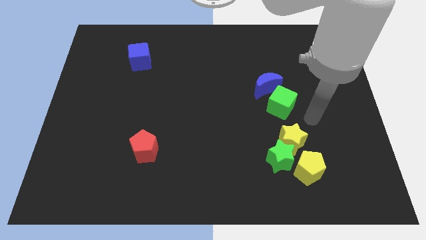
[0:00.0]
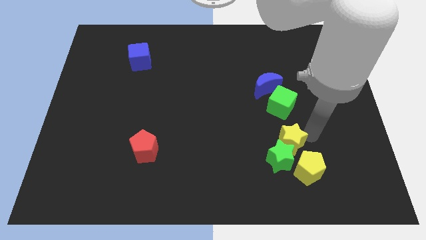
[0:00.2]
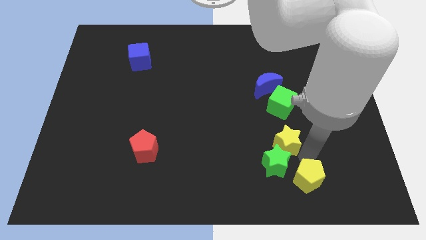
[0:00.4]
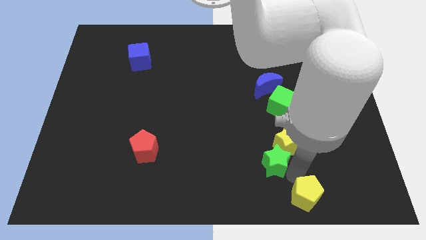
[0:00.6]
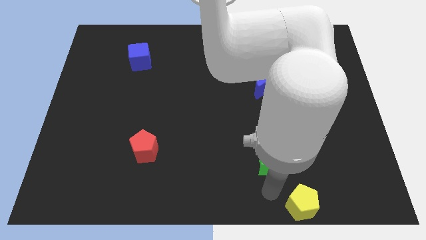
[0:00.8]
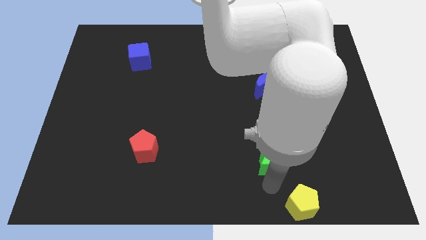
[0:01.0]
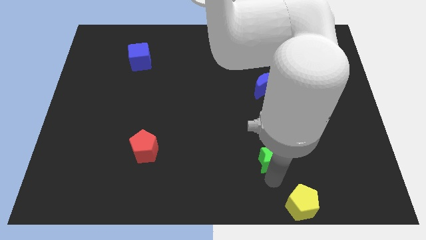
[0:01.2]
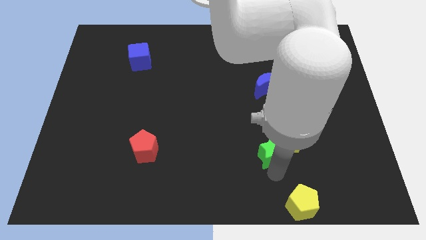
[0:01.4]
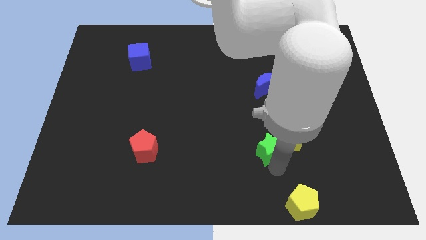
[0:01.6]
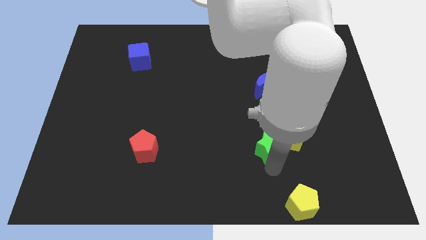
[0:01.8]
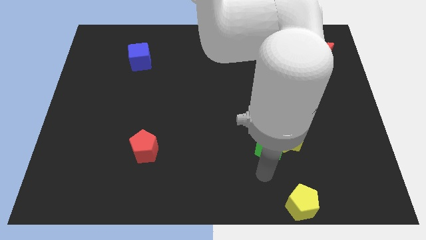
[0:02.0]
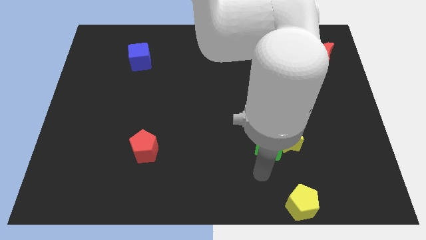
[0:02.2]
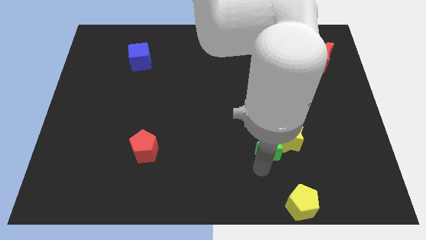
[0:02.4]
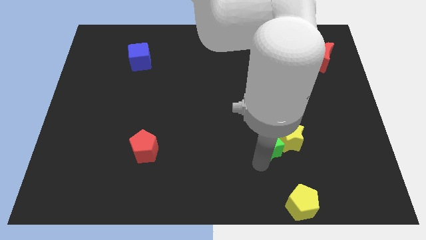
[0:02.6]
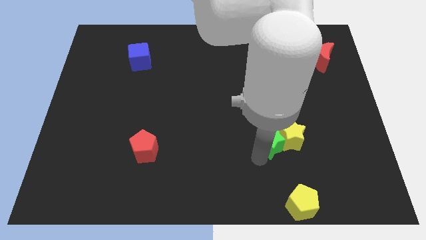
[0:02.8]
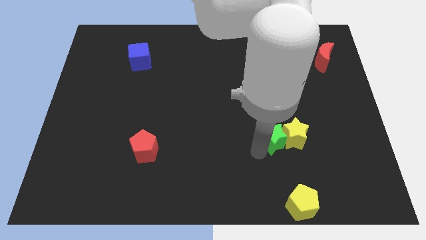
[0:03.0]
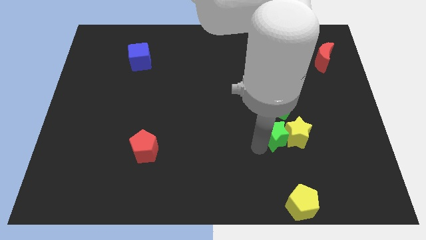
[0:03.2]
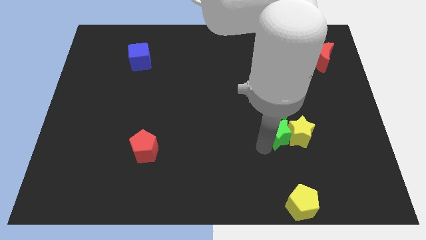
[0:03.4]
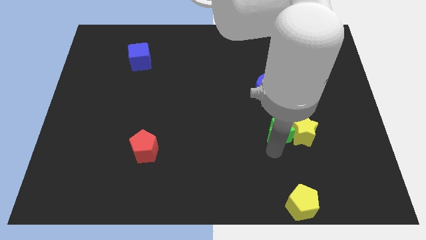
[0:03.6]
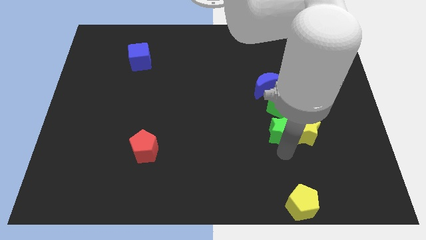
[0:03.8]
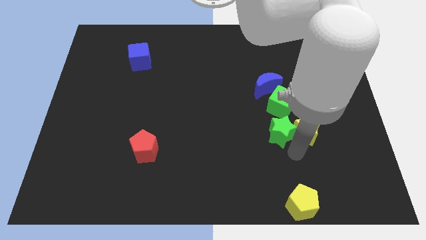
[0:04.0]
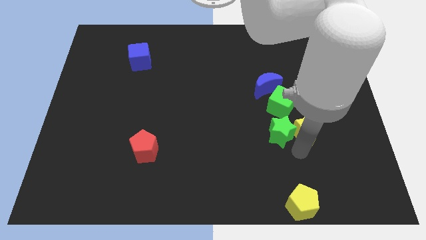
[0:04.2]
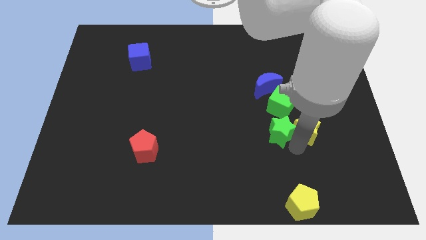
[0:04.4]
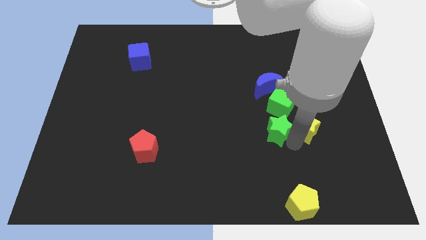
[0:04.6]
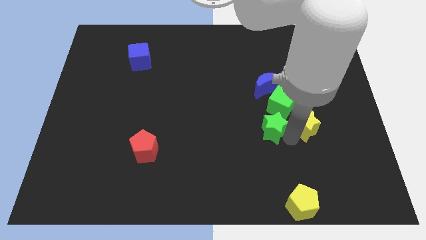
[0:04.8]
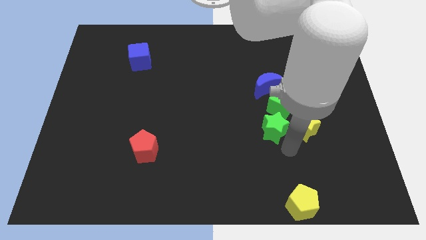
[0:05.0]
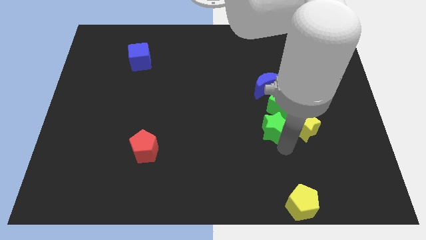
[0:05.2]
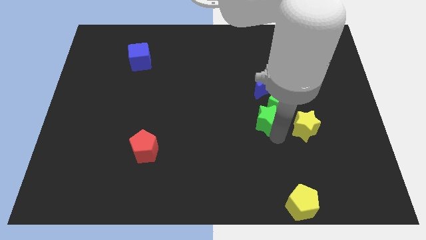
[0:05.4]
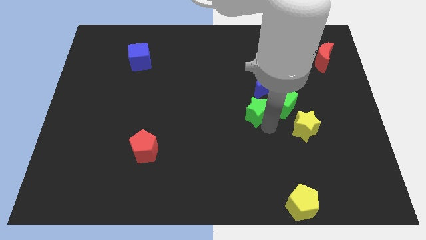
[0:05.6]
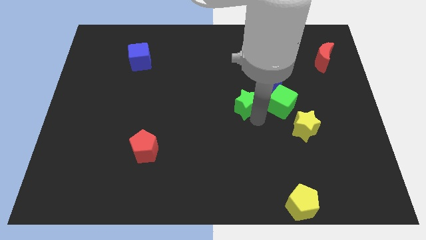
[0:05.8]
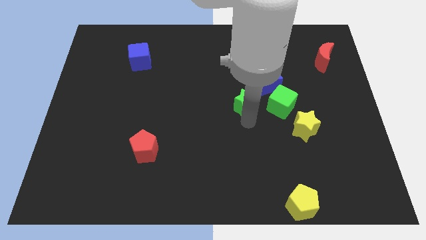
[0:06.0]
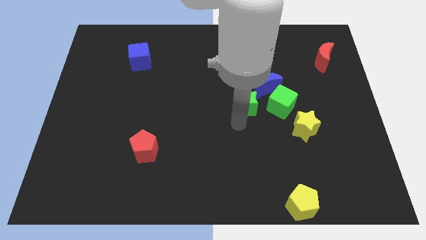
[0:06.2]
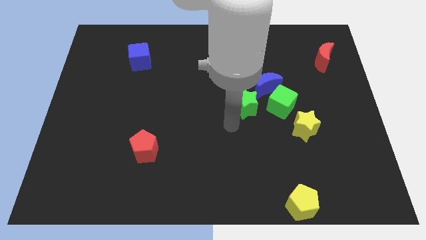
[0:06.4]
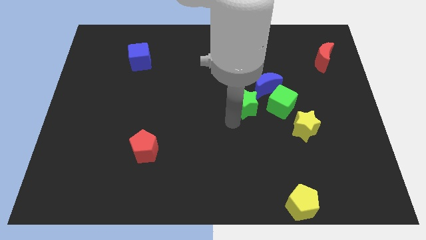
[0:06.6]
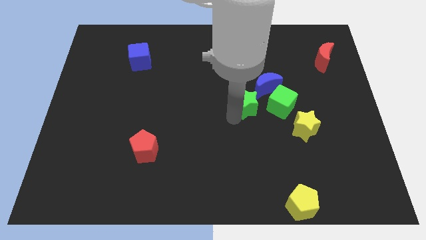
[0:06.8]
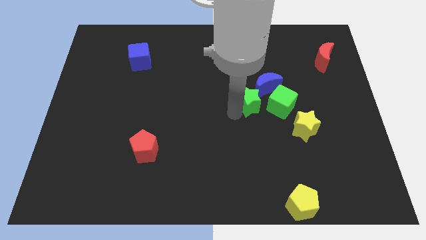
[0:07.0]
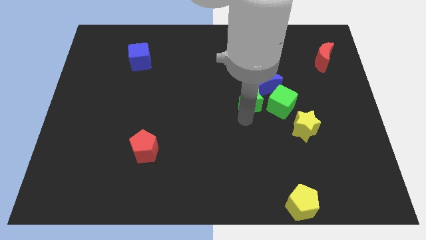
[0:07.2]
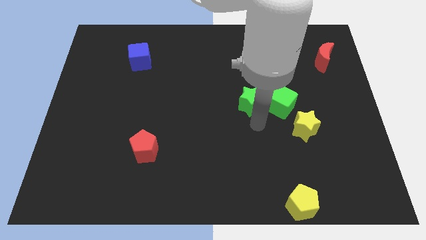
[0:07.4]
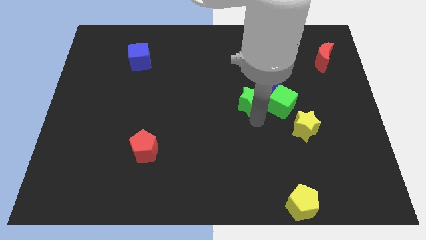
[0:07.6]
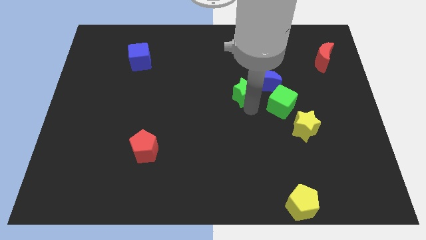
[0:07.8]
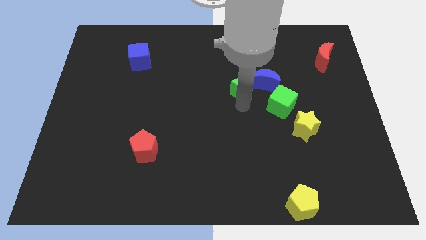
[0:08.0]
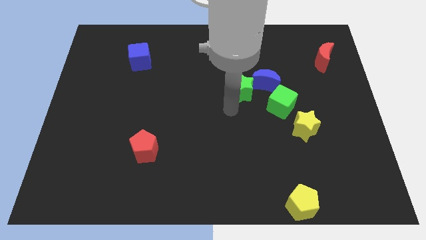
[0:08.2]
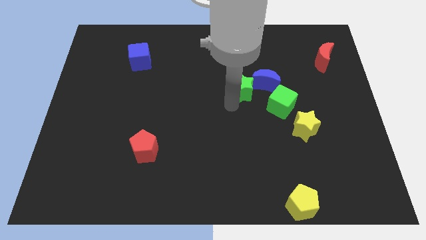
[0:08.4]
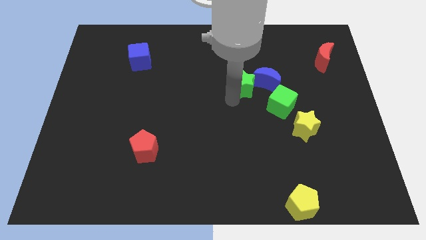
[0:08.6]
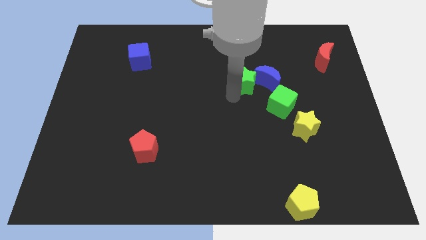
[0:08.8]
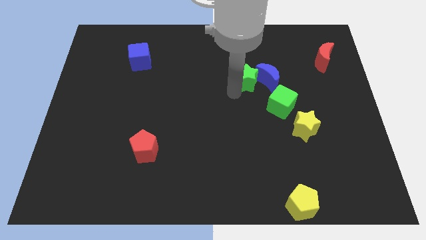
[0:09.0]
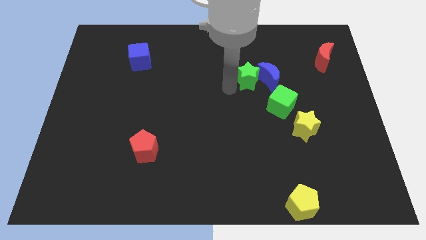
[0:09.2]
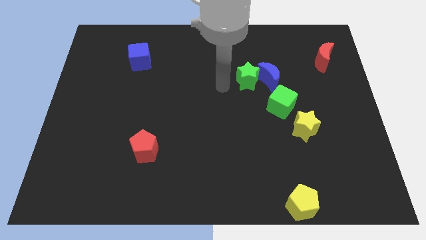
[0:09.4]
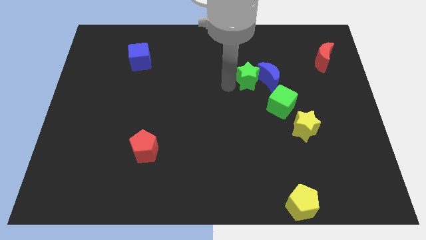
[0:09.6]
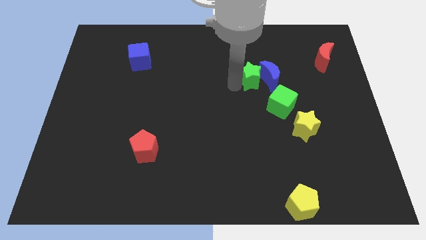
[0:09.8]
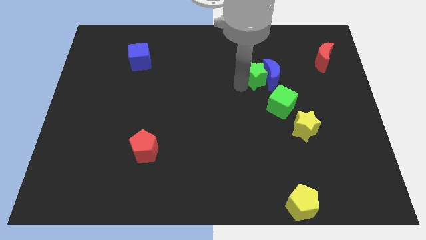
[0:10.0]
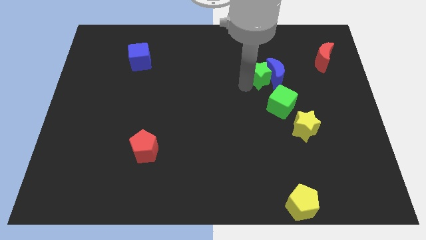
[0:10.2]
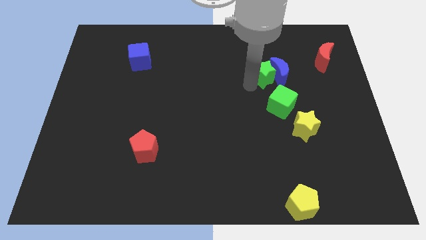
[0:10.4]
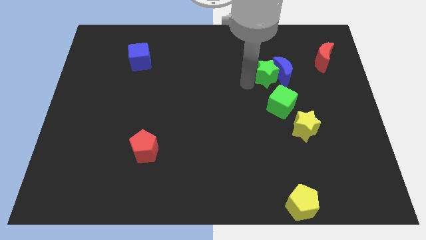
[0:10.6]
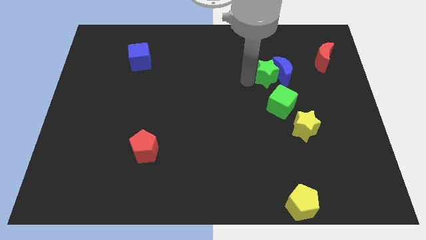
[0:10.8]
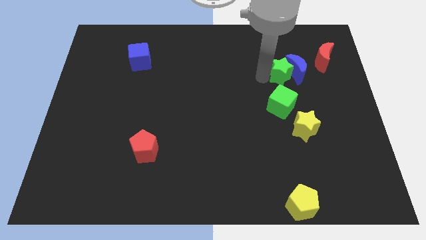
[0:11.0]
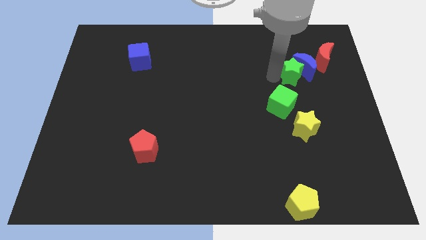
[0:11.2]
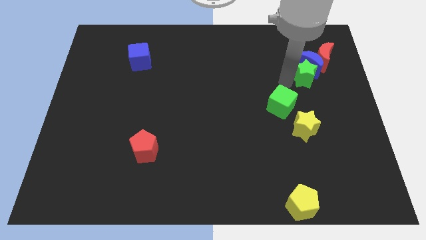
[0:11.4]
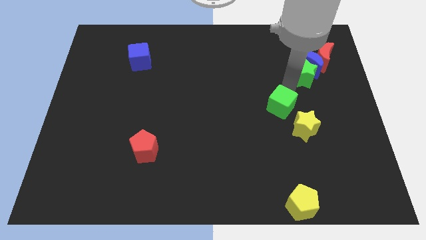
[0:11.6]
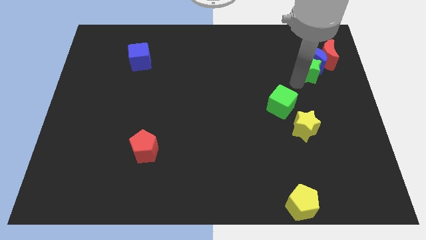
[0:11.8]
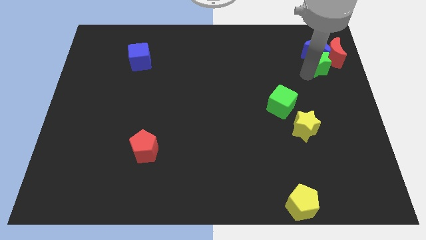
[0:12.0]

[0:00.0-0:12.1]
push the green star towards the red moon

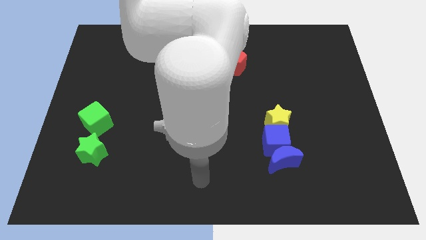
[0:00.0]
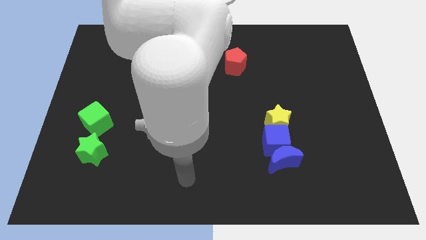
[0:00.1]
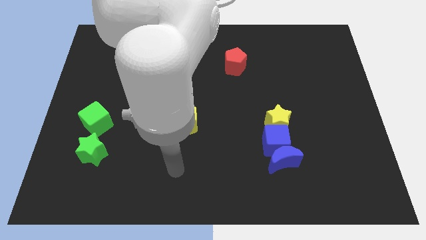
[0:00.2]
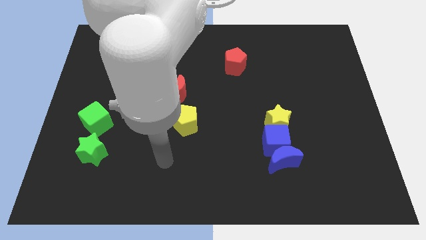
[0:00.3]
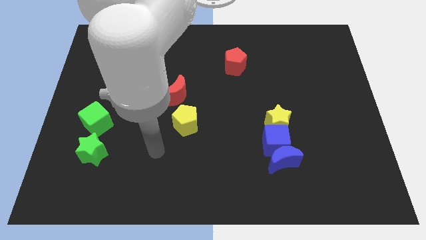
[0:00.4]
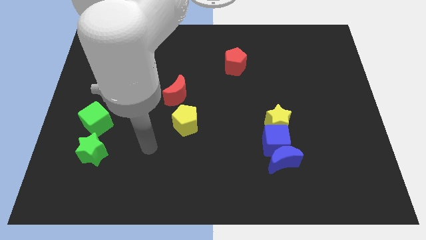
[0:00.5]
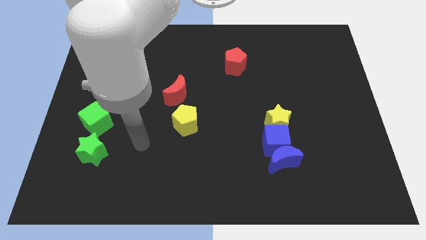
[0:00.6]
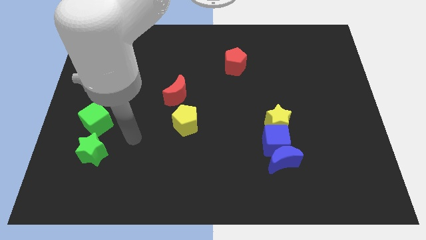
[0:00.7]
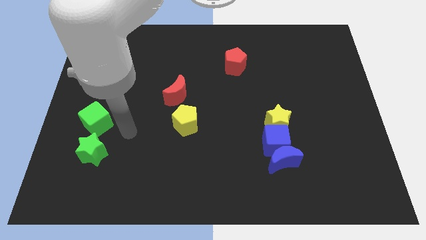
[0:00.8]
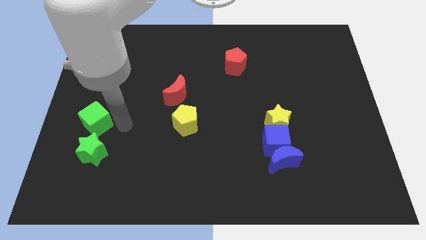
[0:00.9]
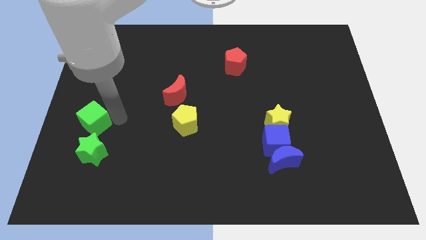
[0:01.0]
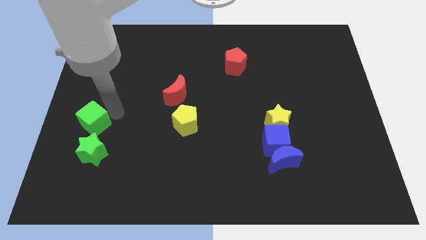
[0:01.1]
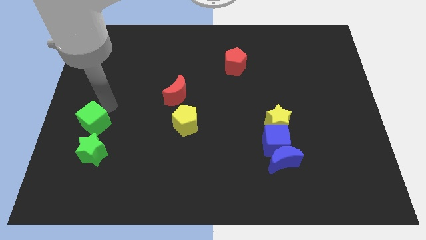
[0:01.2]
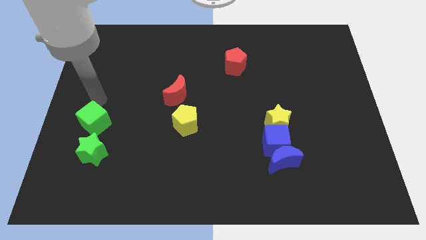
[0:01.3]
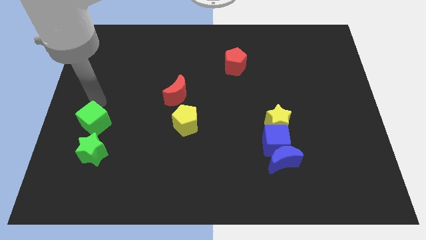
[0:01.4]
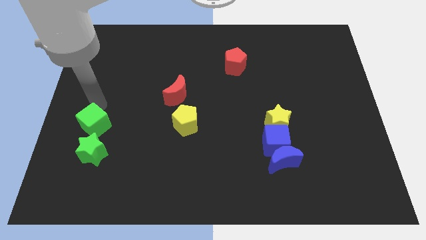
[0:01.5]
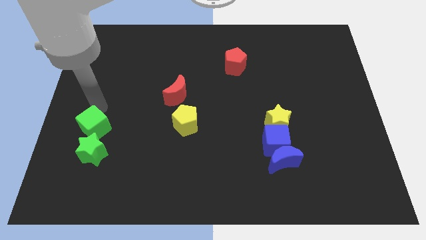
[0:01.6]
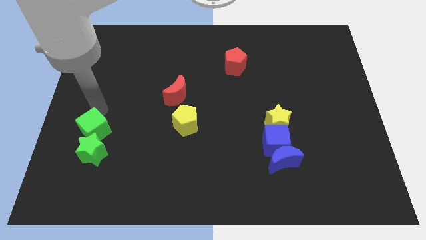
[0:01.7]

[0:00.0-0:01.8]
move the green cube next to the green star
